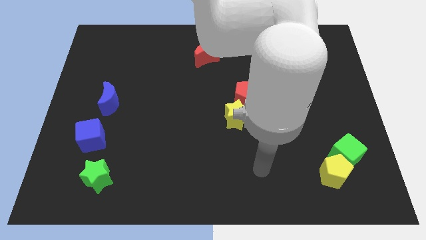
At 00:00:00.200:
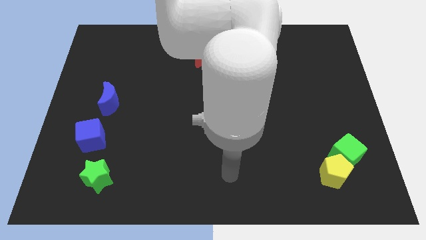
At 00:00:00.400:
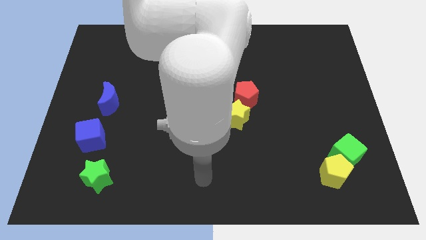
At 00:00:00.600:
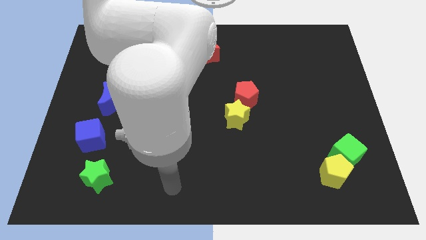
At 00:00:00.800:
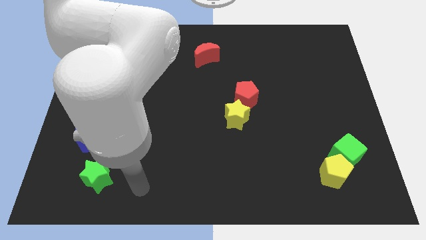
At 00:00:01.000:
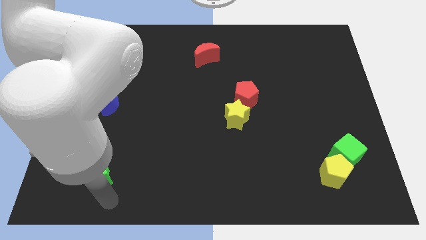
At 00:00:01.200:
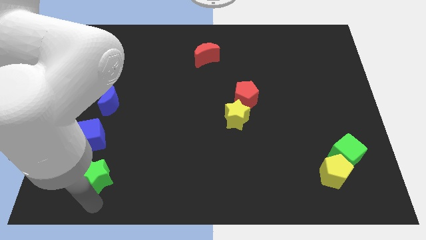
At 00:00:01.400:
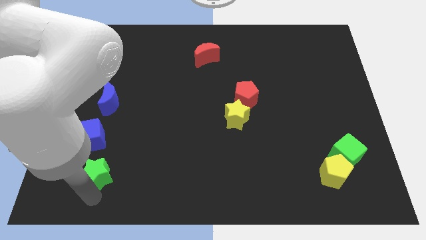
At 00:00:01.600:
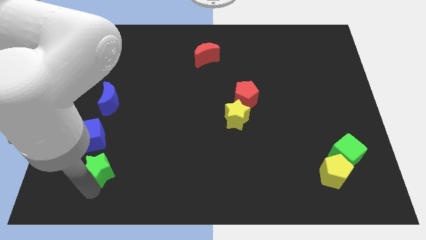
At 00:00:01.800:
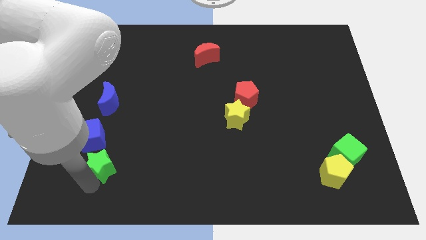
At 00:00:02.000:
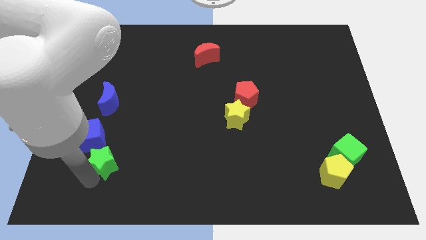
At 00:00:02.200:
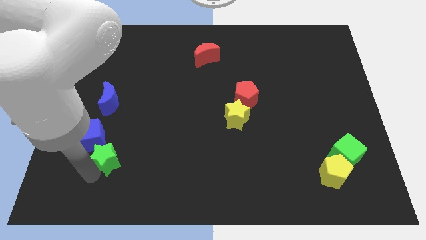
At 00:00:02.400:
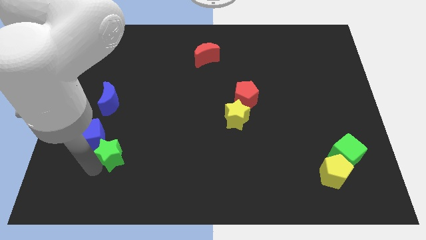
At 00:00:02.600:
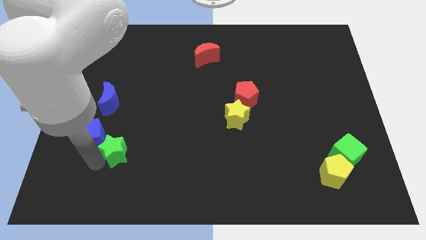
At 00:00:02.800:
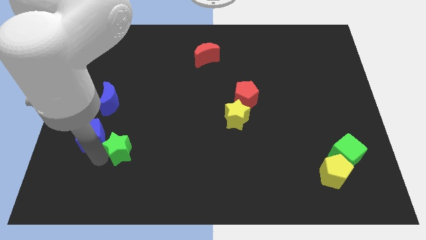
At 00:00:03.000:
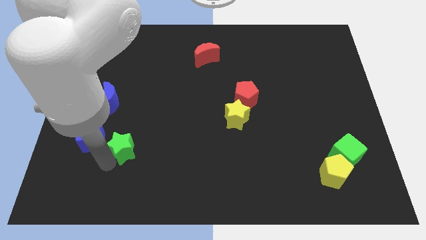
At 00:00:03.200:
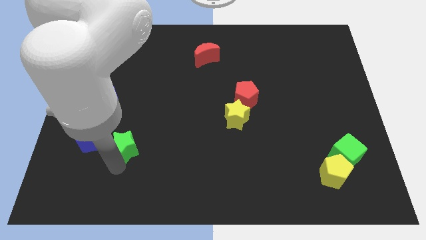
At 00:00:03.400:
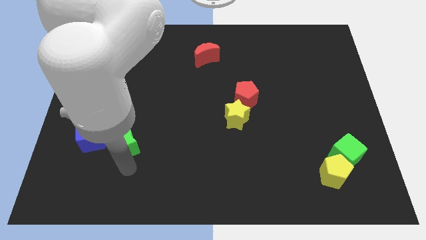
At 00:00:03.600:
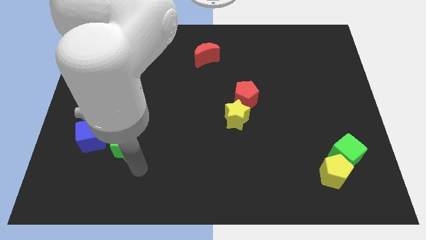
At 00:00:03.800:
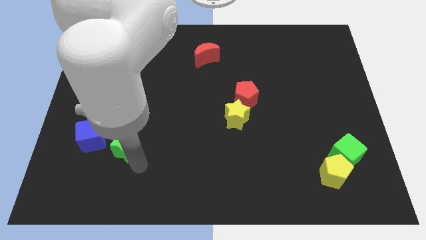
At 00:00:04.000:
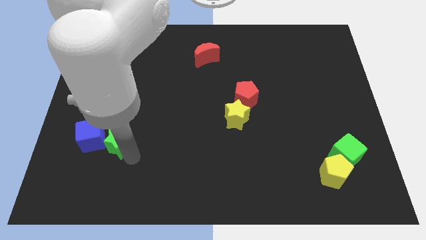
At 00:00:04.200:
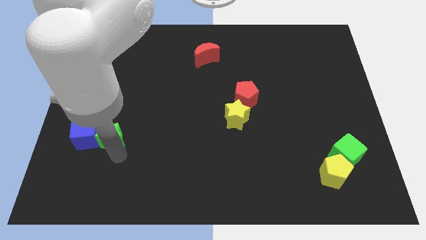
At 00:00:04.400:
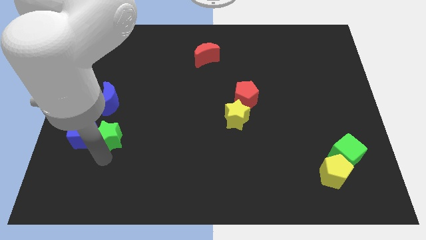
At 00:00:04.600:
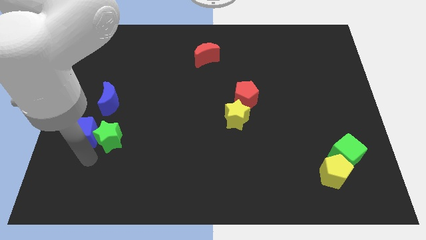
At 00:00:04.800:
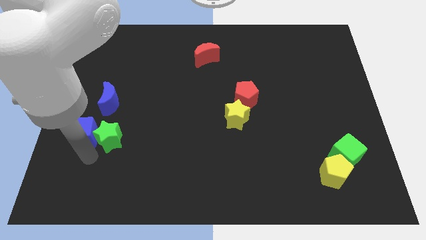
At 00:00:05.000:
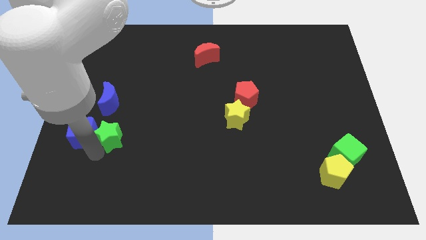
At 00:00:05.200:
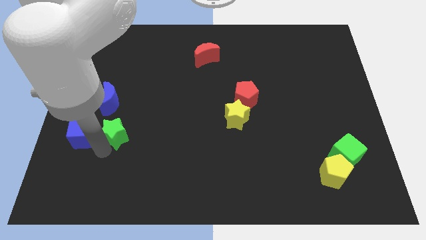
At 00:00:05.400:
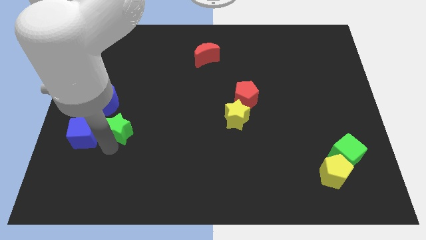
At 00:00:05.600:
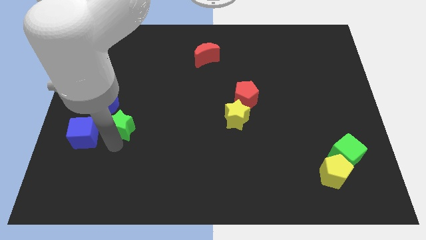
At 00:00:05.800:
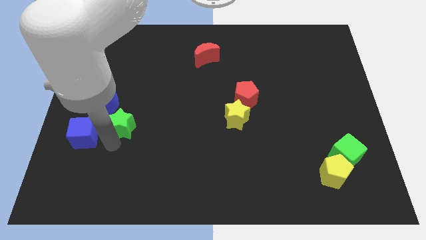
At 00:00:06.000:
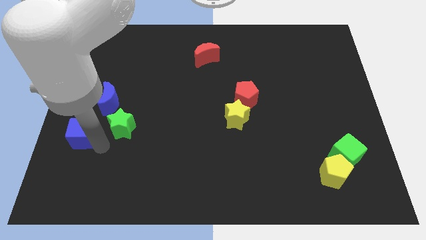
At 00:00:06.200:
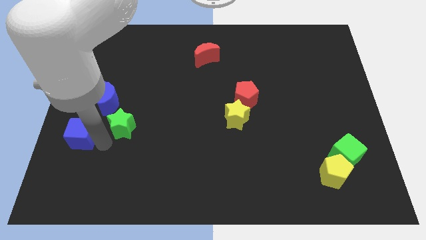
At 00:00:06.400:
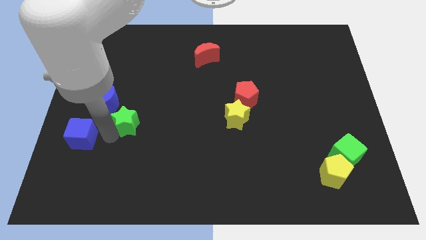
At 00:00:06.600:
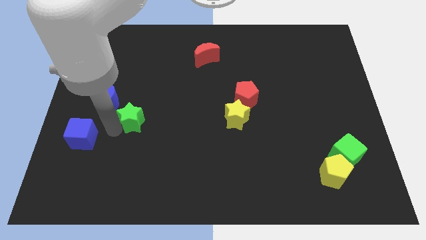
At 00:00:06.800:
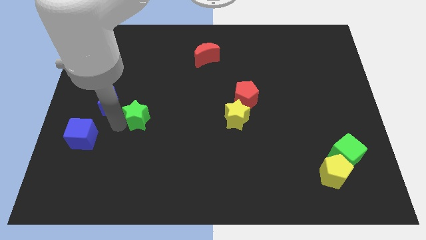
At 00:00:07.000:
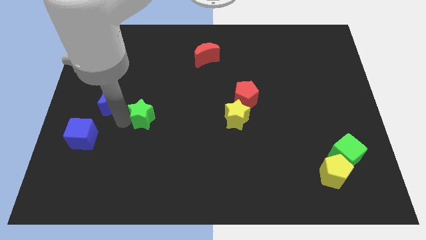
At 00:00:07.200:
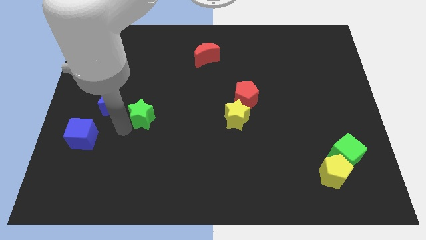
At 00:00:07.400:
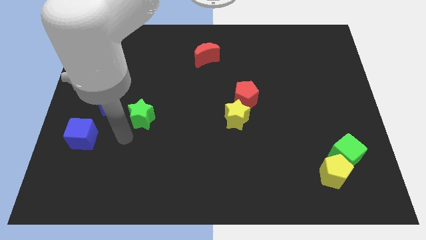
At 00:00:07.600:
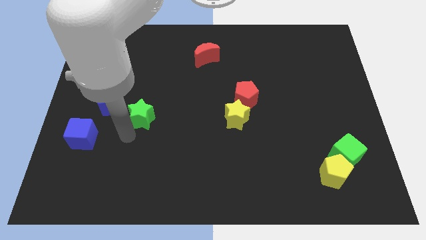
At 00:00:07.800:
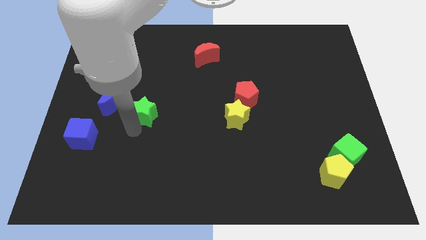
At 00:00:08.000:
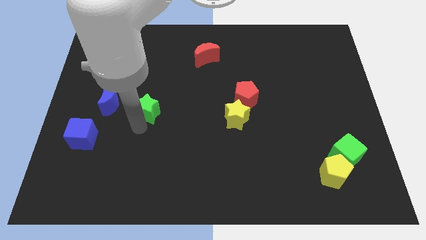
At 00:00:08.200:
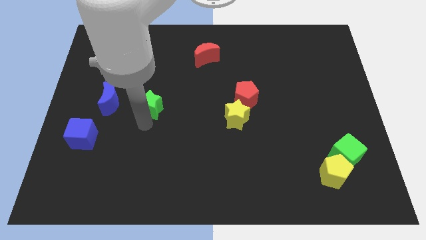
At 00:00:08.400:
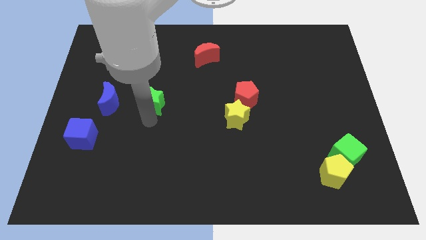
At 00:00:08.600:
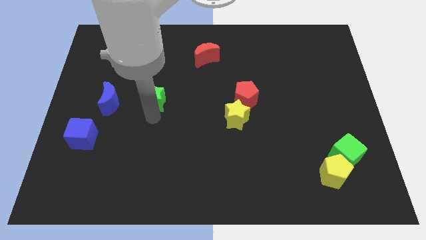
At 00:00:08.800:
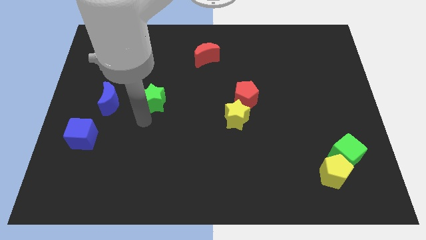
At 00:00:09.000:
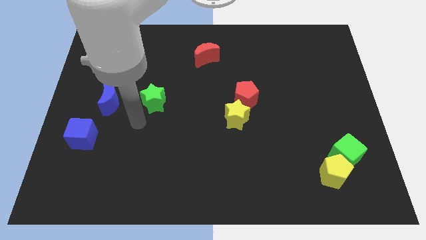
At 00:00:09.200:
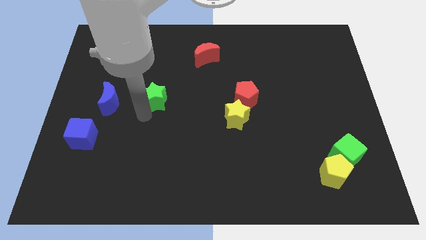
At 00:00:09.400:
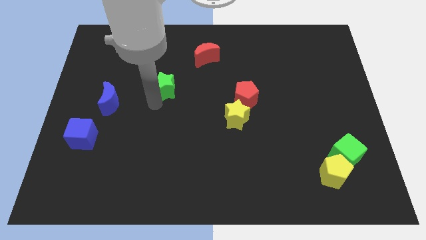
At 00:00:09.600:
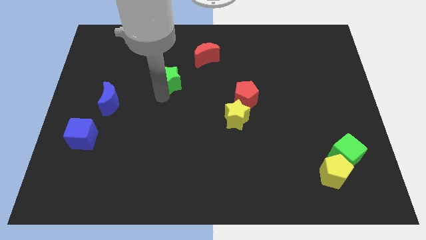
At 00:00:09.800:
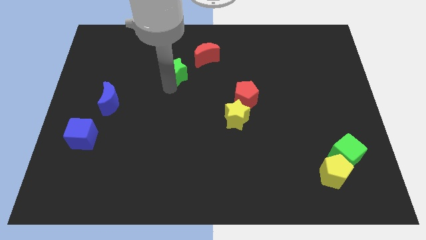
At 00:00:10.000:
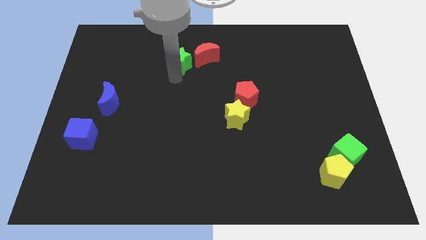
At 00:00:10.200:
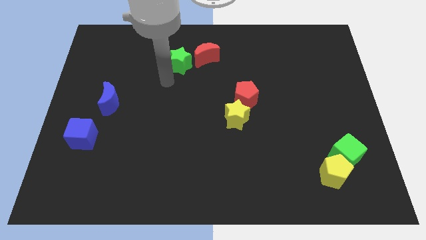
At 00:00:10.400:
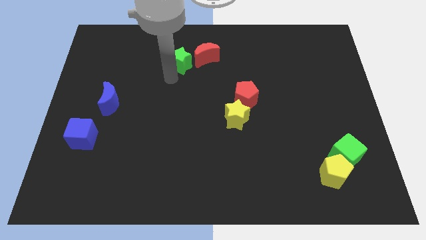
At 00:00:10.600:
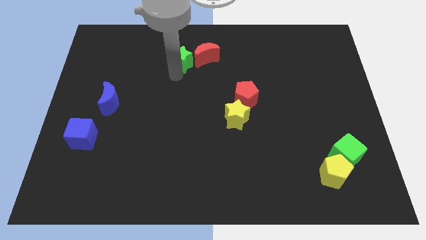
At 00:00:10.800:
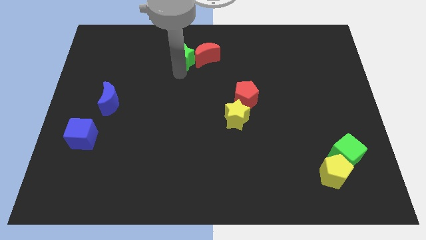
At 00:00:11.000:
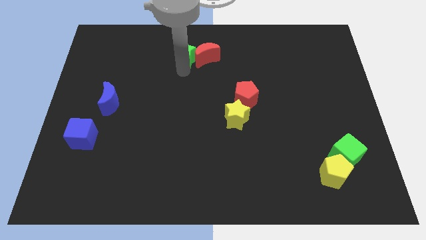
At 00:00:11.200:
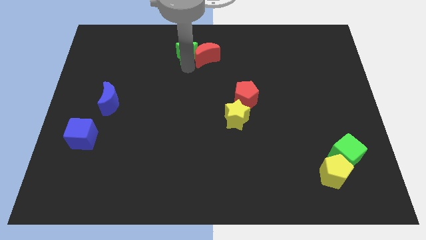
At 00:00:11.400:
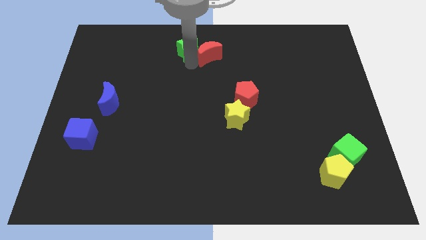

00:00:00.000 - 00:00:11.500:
push the green star to the top
